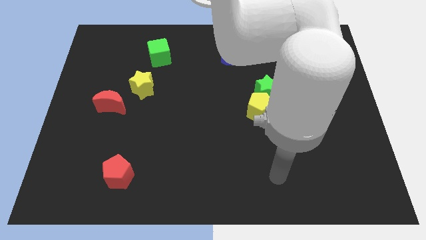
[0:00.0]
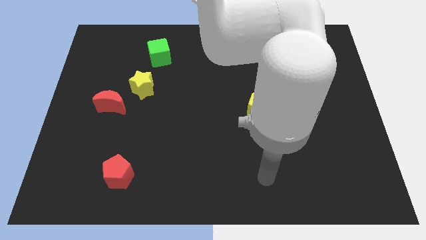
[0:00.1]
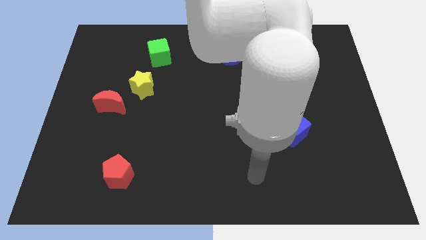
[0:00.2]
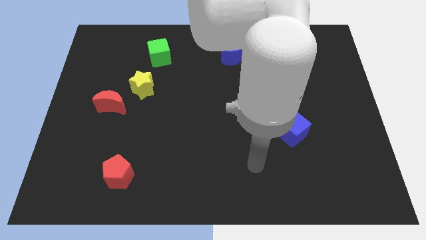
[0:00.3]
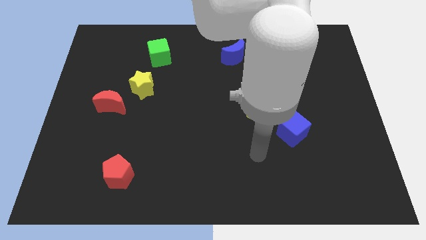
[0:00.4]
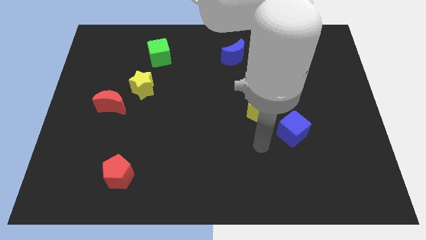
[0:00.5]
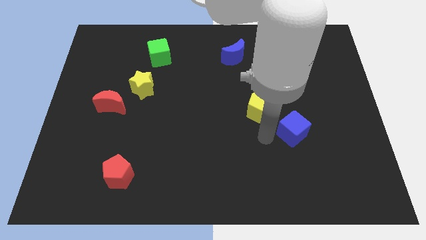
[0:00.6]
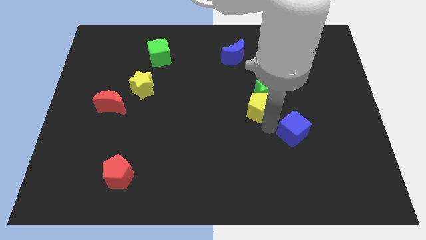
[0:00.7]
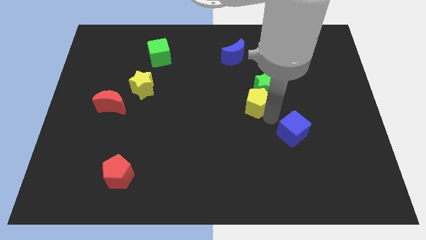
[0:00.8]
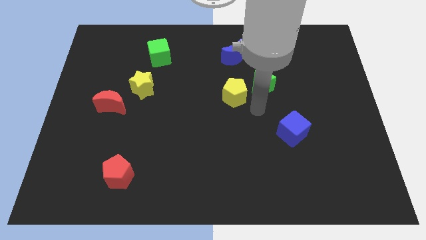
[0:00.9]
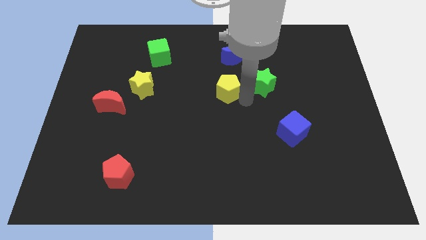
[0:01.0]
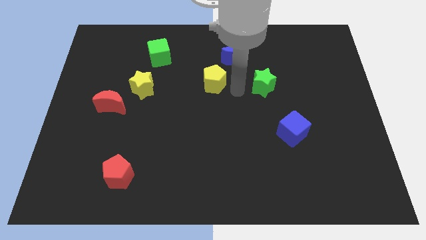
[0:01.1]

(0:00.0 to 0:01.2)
separate the green star from the yellow pentagon

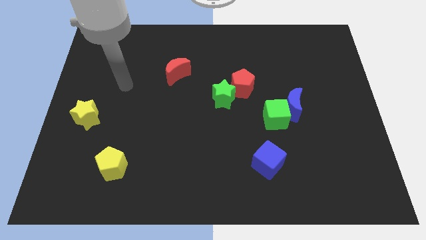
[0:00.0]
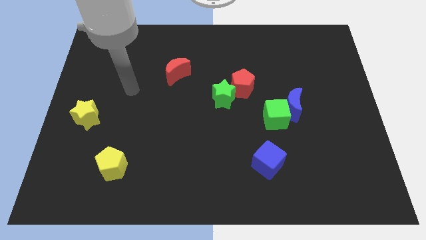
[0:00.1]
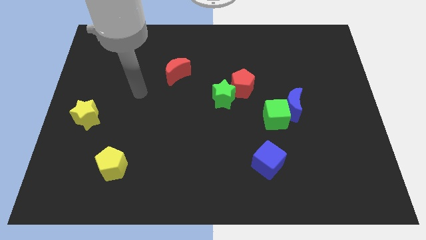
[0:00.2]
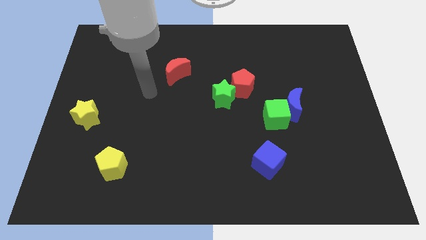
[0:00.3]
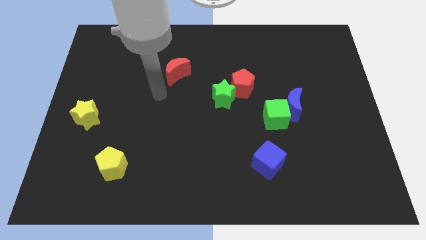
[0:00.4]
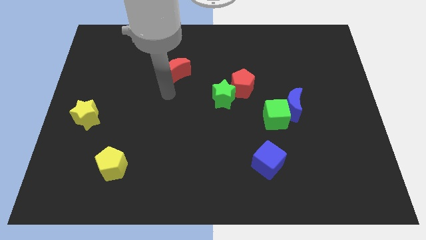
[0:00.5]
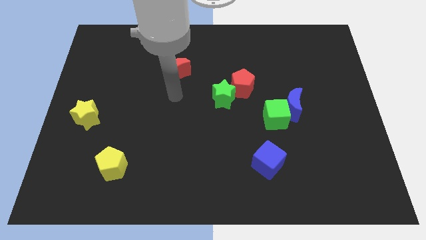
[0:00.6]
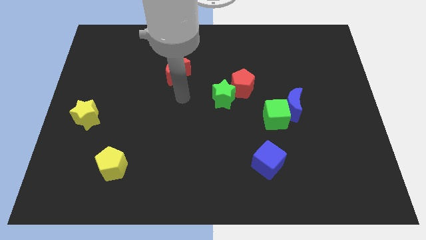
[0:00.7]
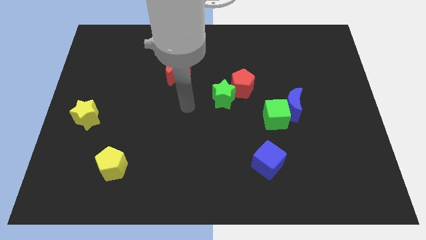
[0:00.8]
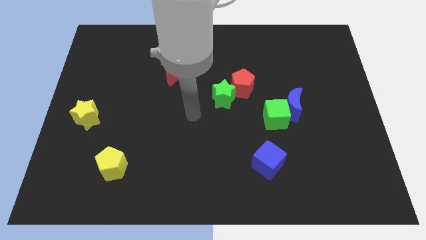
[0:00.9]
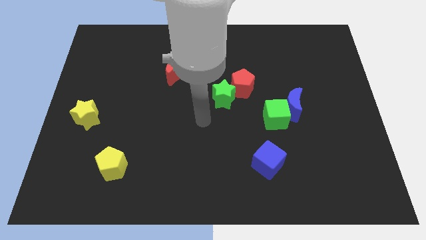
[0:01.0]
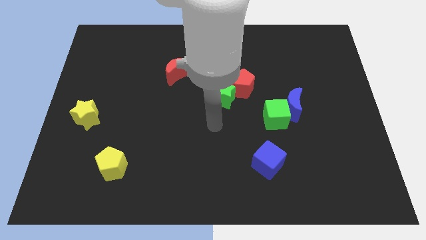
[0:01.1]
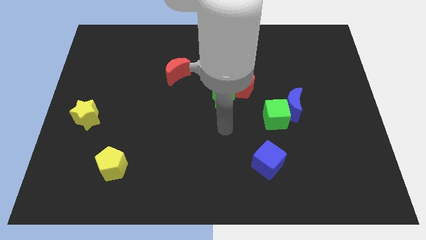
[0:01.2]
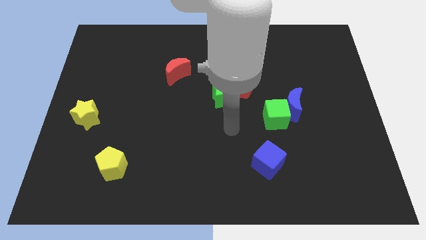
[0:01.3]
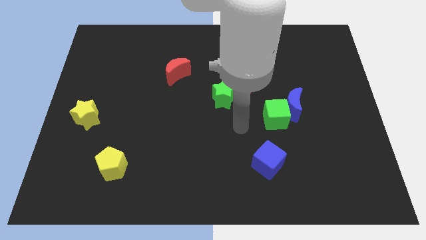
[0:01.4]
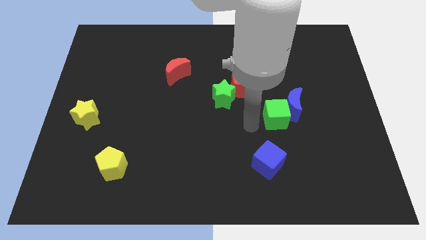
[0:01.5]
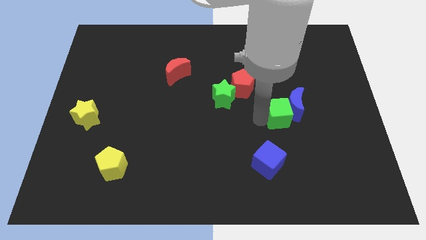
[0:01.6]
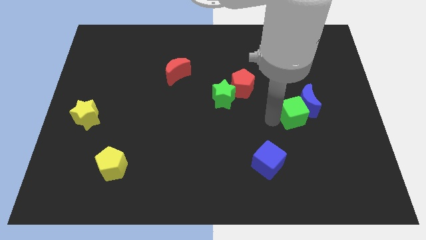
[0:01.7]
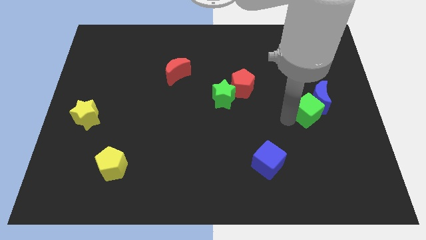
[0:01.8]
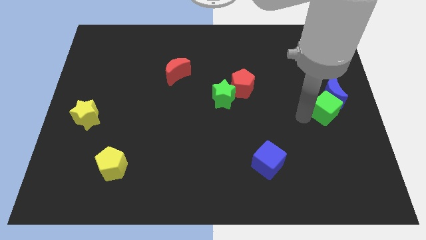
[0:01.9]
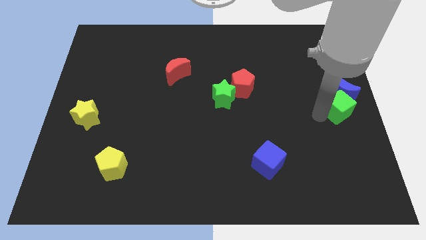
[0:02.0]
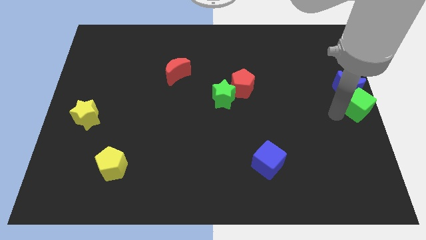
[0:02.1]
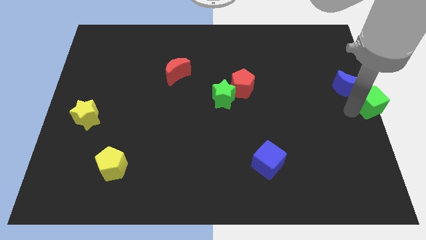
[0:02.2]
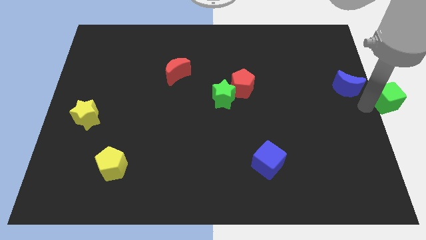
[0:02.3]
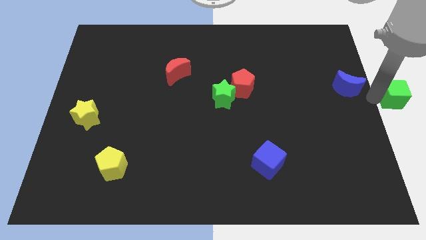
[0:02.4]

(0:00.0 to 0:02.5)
pull the blue moon apart from the green cube

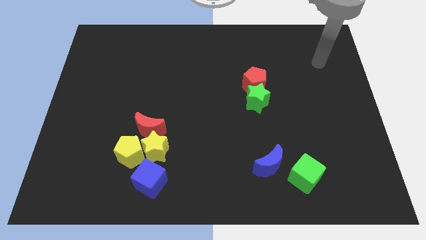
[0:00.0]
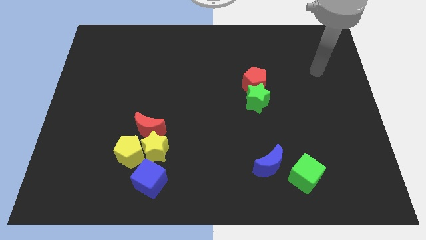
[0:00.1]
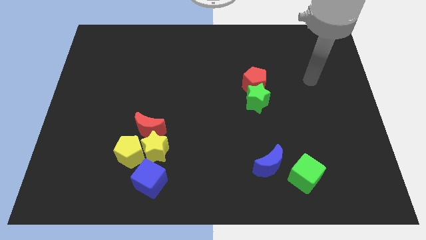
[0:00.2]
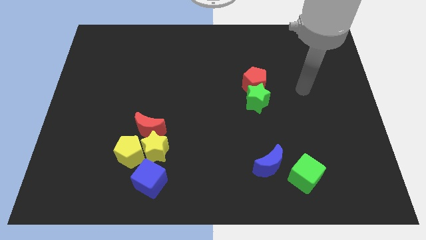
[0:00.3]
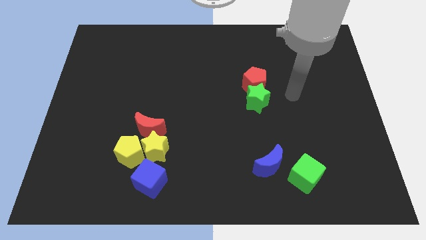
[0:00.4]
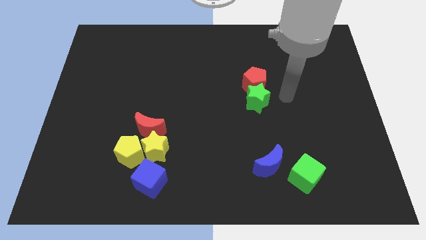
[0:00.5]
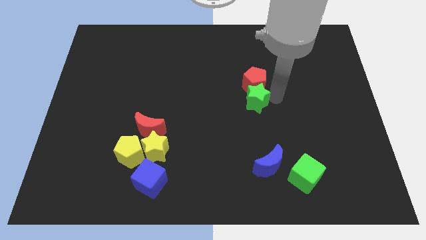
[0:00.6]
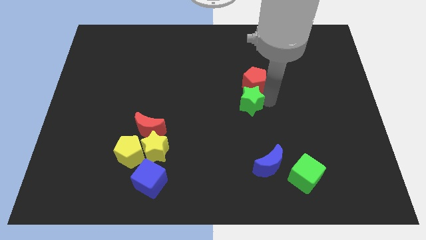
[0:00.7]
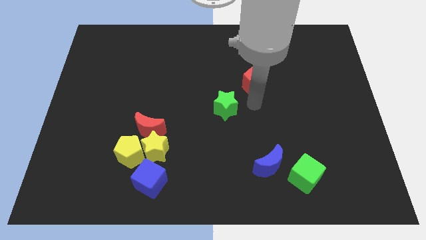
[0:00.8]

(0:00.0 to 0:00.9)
separate the red pentagon from the green star

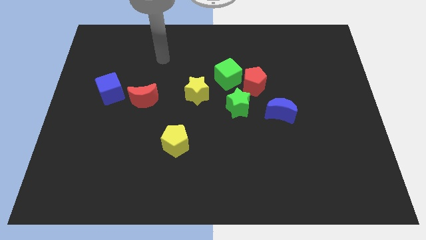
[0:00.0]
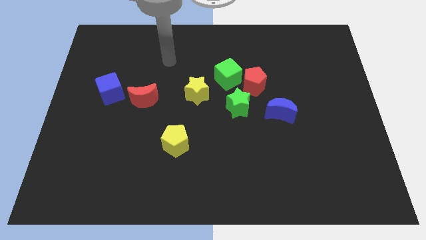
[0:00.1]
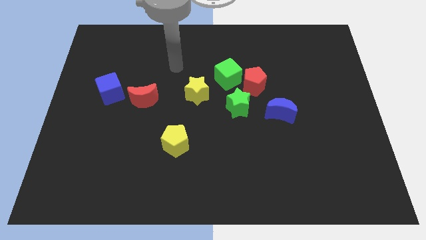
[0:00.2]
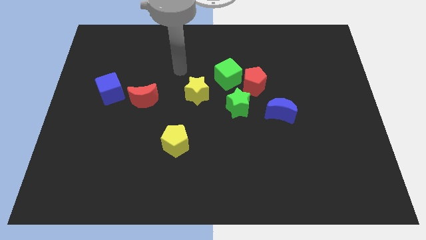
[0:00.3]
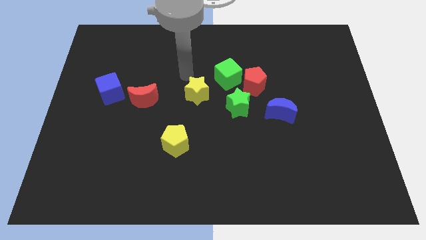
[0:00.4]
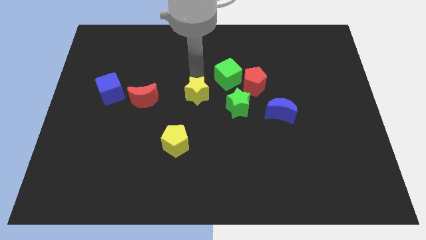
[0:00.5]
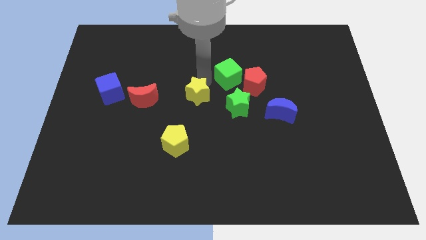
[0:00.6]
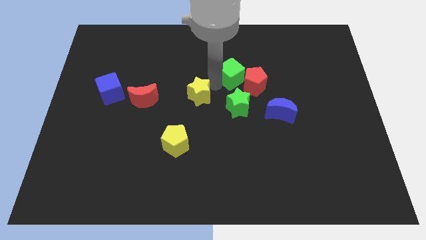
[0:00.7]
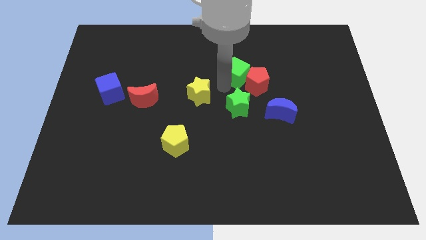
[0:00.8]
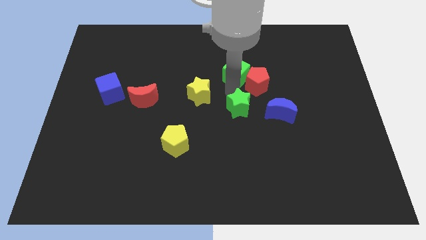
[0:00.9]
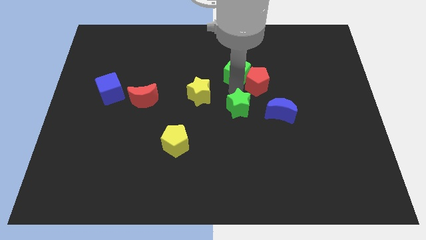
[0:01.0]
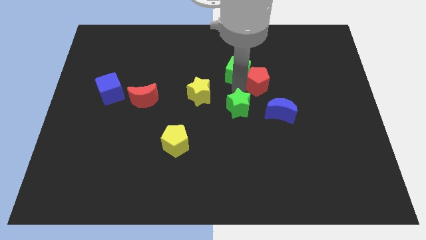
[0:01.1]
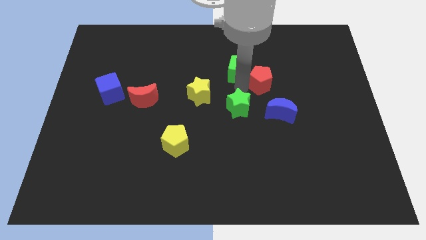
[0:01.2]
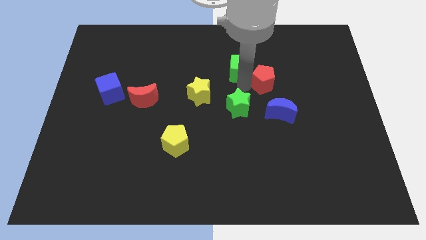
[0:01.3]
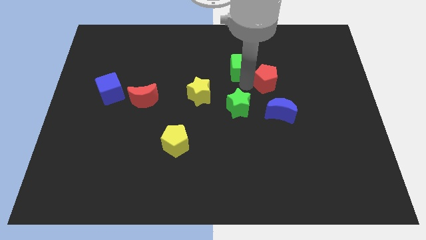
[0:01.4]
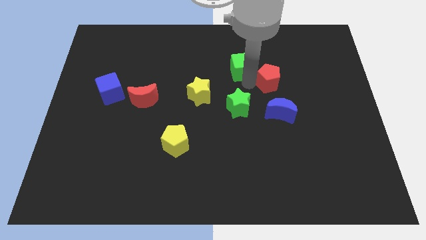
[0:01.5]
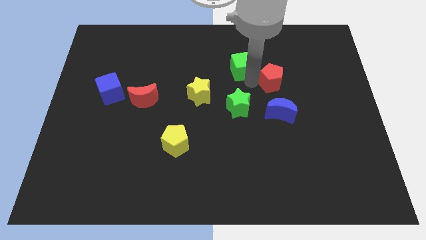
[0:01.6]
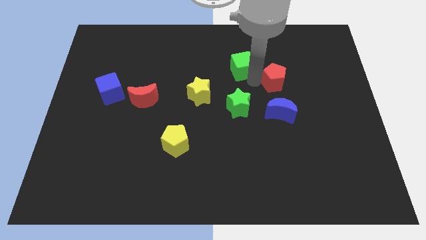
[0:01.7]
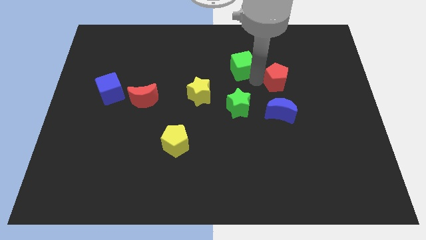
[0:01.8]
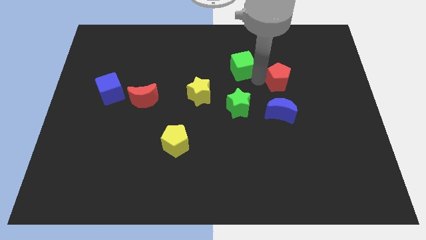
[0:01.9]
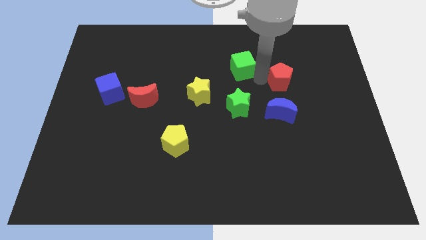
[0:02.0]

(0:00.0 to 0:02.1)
move the red pentagon away from the green cube and green star

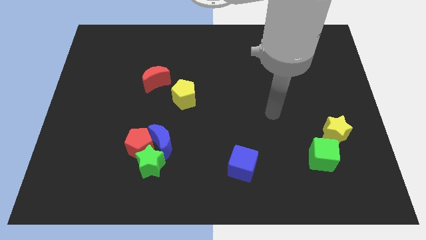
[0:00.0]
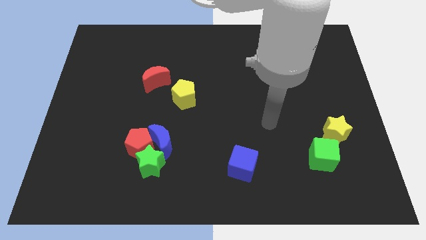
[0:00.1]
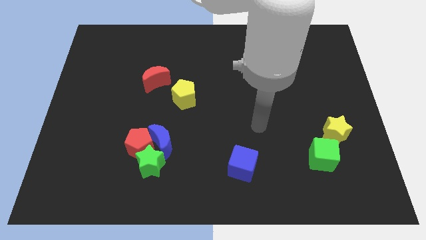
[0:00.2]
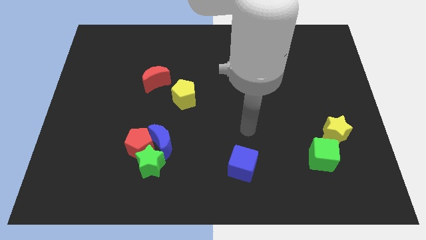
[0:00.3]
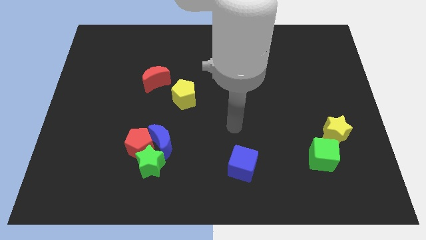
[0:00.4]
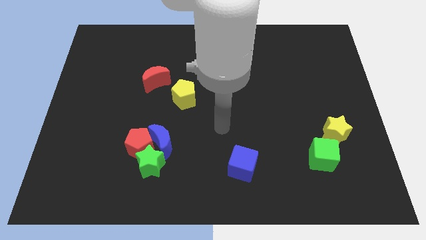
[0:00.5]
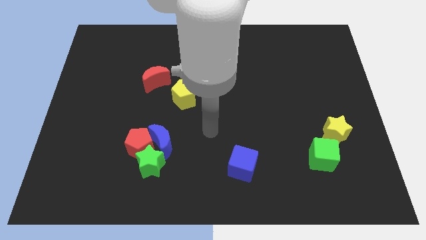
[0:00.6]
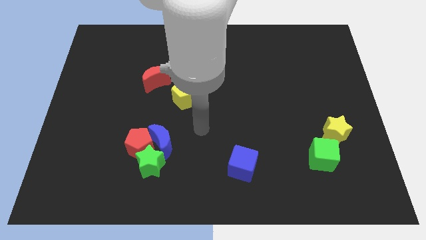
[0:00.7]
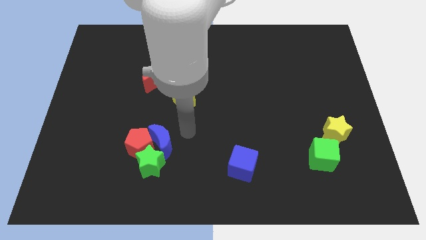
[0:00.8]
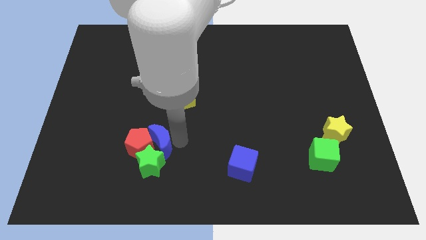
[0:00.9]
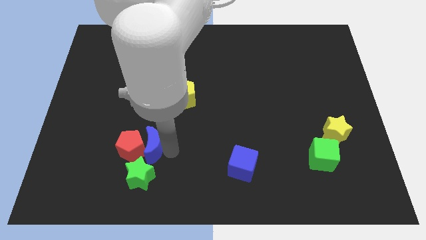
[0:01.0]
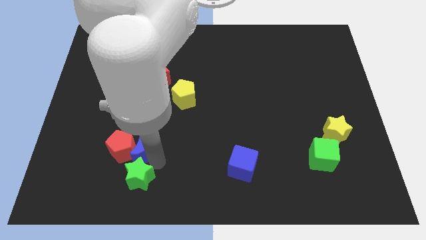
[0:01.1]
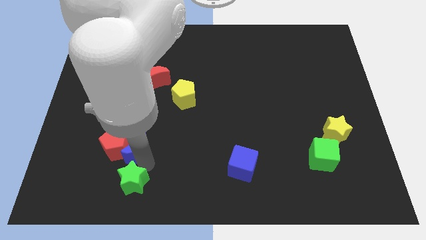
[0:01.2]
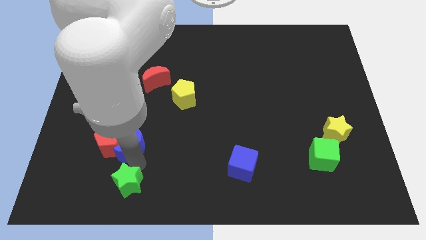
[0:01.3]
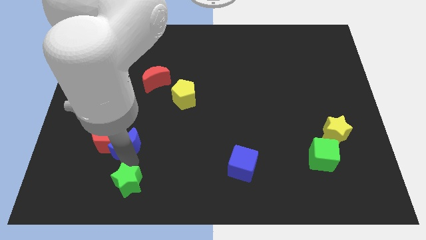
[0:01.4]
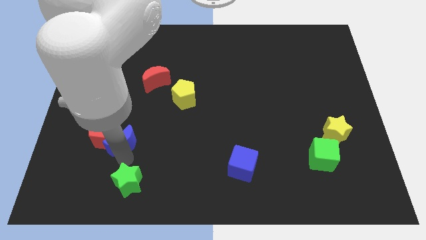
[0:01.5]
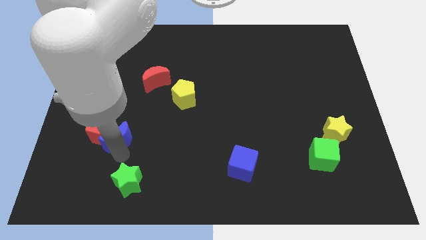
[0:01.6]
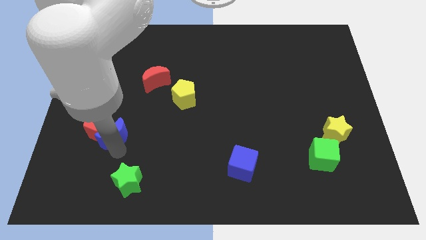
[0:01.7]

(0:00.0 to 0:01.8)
separate the red pentagon from the blue moon and green star

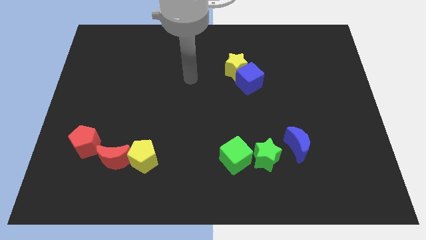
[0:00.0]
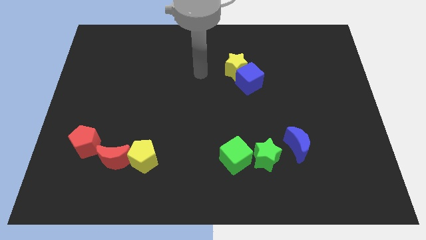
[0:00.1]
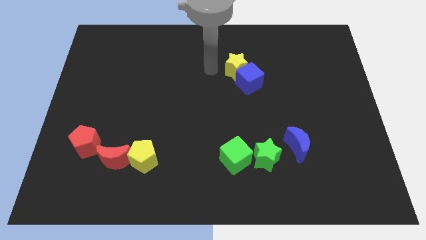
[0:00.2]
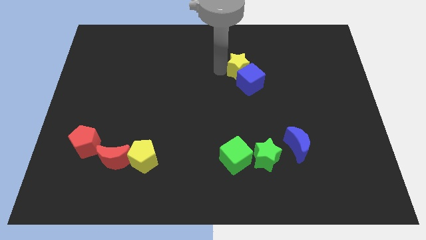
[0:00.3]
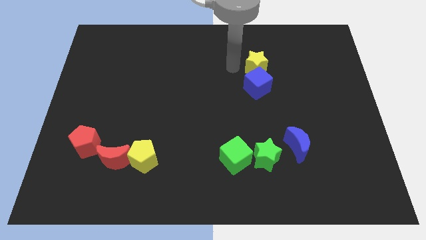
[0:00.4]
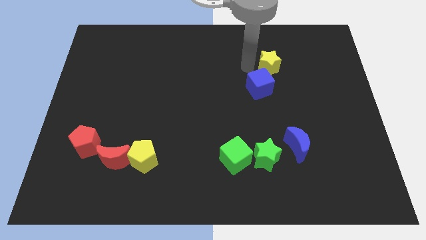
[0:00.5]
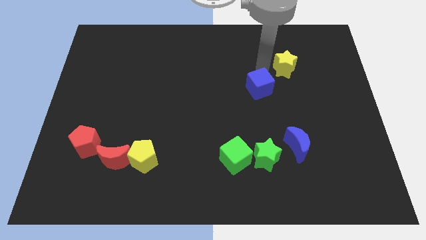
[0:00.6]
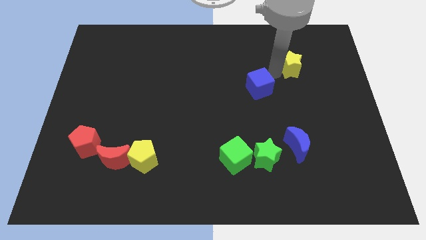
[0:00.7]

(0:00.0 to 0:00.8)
pull the blue cube apart from the yellow star
